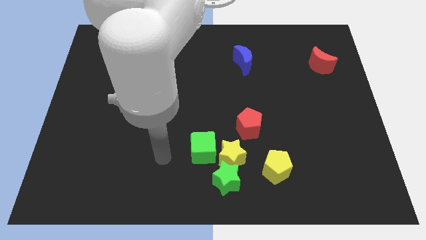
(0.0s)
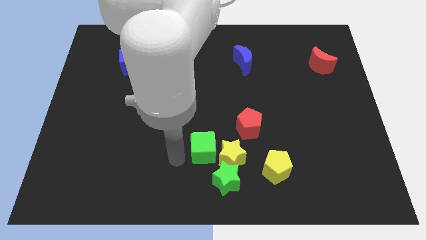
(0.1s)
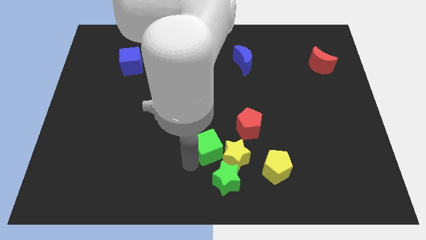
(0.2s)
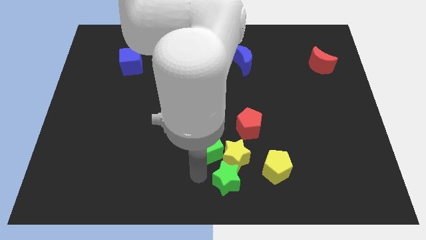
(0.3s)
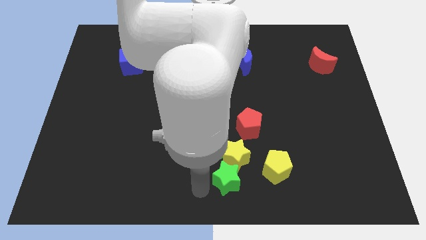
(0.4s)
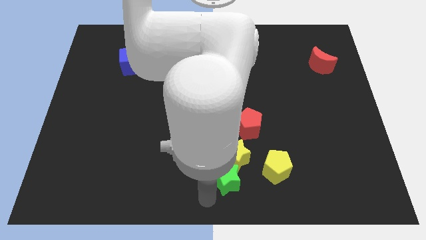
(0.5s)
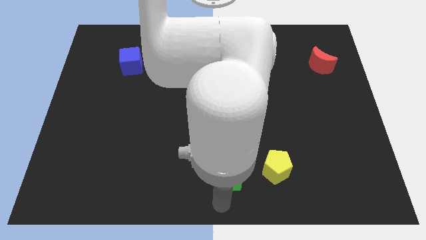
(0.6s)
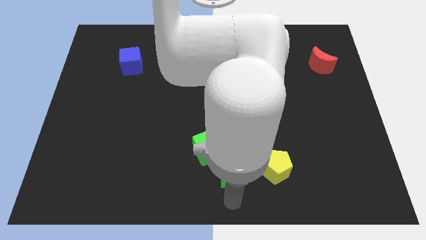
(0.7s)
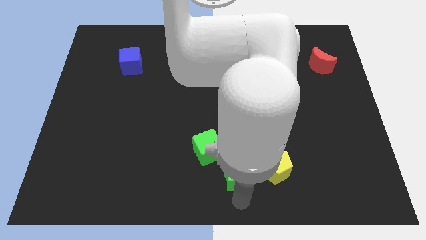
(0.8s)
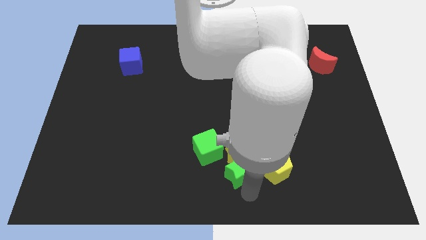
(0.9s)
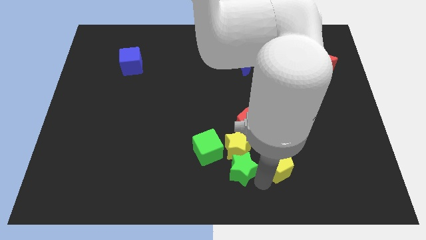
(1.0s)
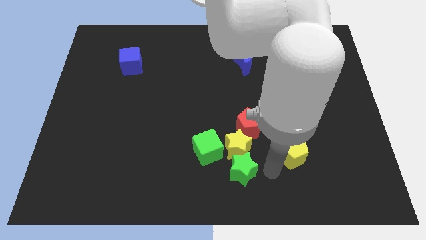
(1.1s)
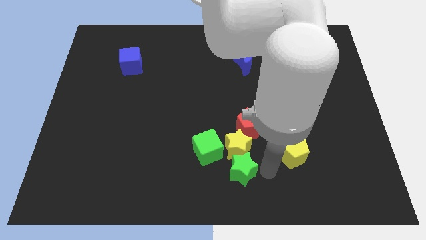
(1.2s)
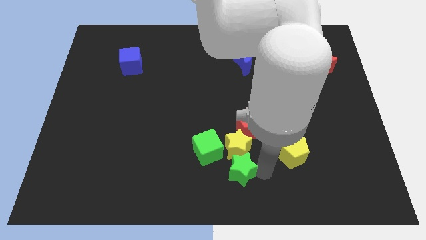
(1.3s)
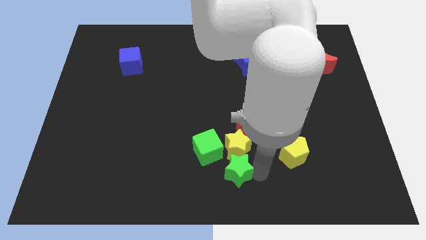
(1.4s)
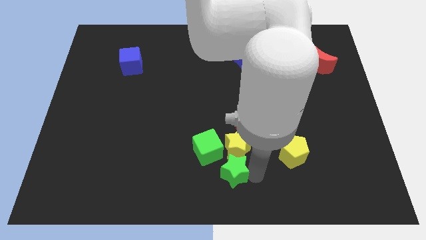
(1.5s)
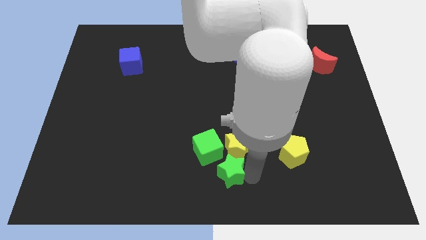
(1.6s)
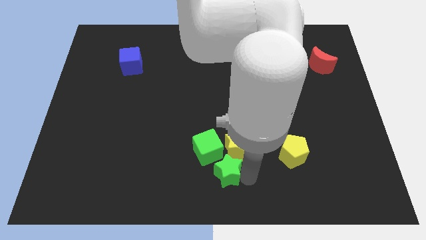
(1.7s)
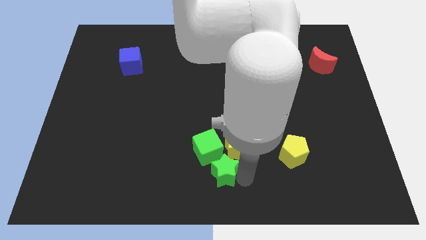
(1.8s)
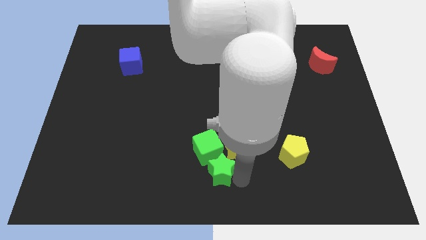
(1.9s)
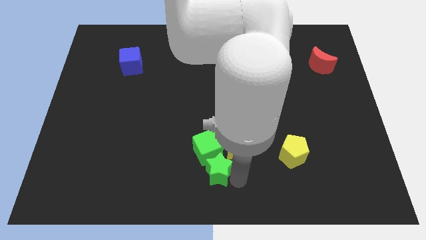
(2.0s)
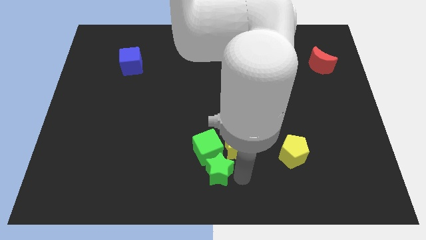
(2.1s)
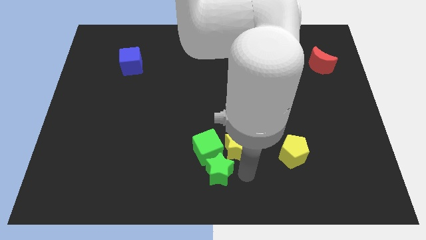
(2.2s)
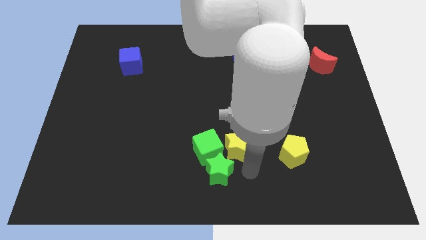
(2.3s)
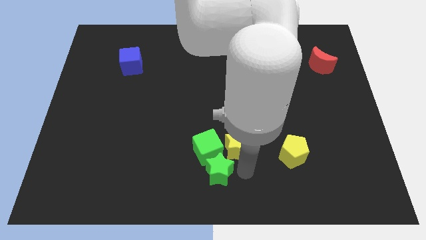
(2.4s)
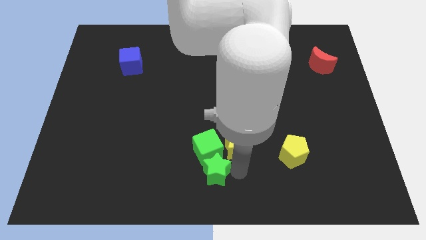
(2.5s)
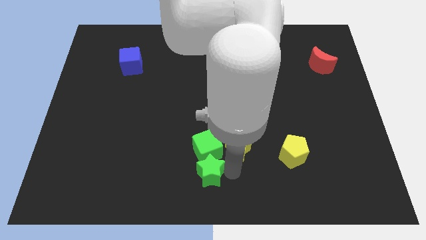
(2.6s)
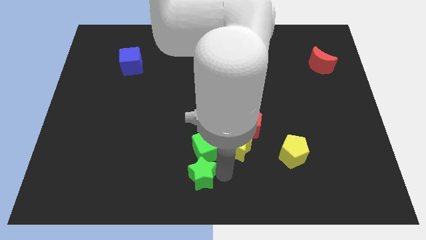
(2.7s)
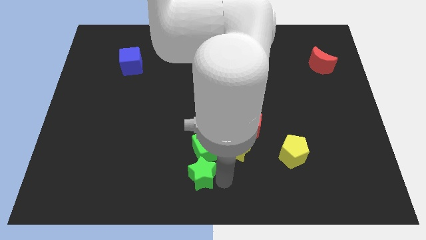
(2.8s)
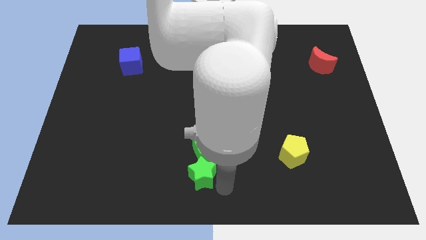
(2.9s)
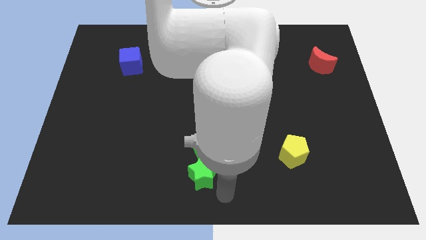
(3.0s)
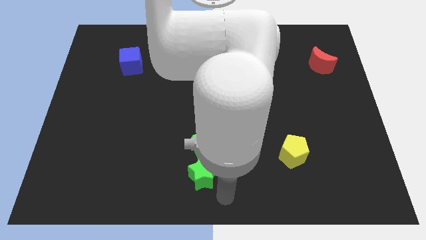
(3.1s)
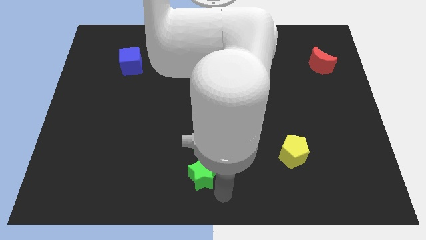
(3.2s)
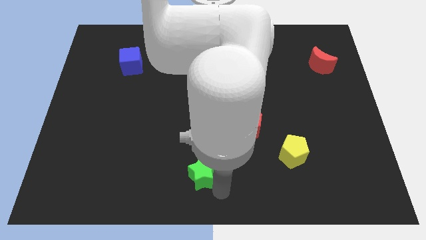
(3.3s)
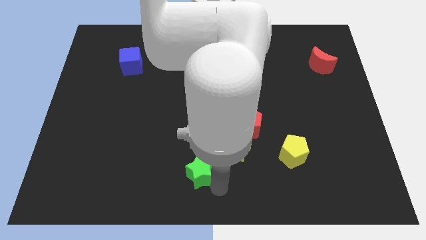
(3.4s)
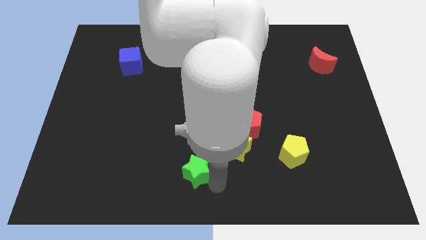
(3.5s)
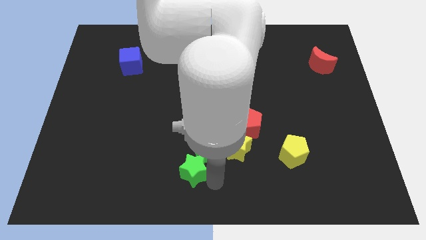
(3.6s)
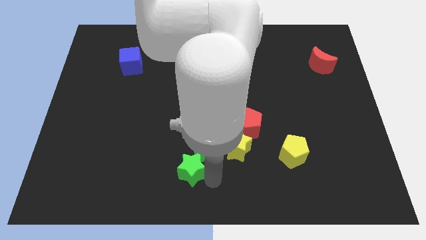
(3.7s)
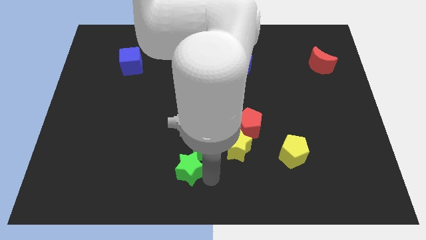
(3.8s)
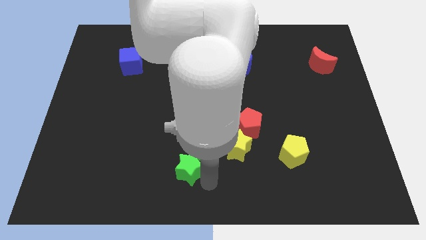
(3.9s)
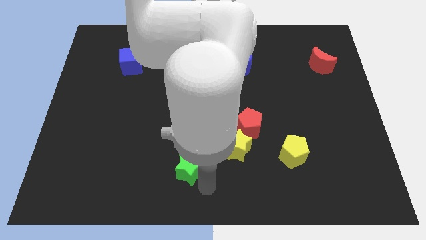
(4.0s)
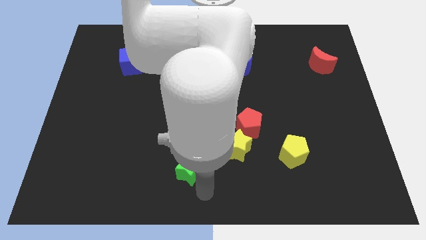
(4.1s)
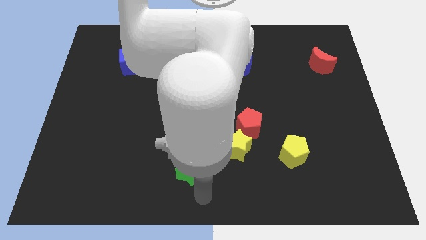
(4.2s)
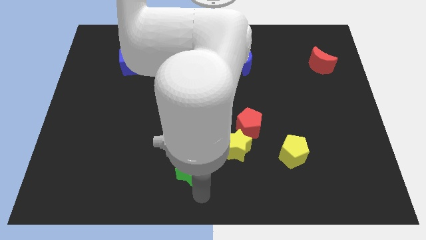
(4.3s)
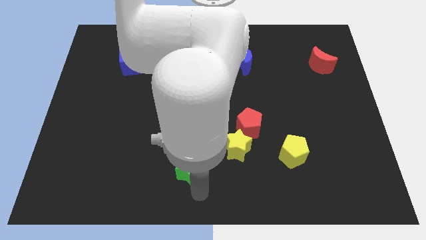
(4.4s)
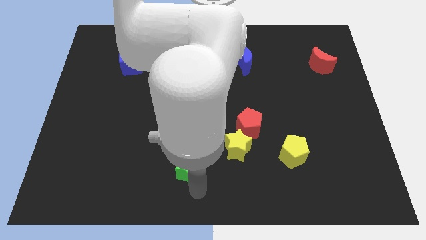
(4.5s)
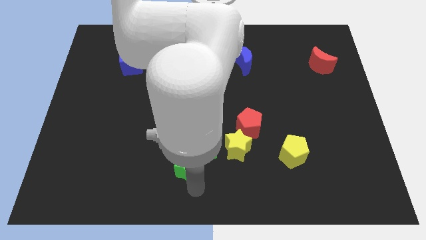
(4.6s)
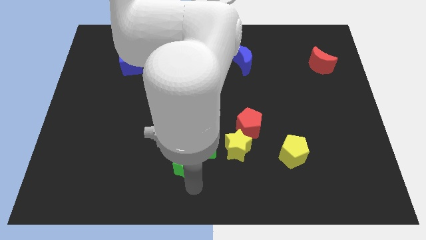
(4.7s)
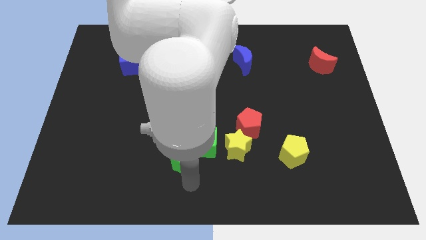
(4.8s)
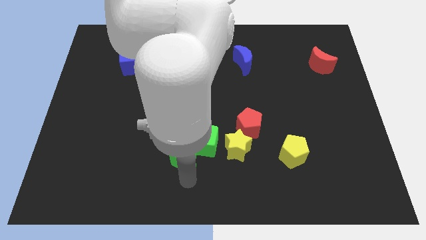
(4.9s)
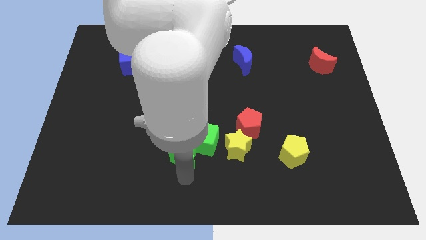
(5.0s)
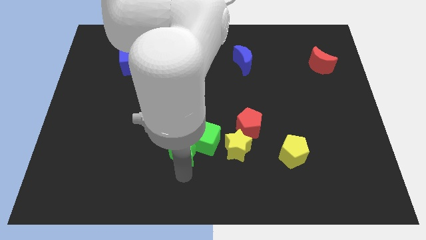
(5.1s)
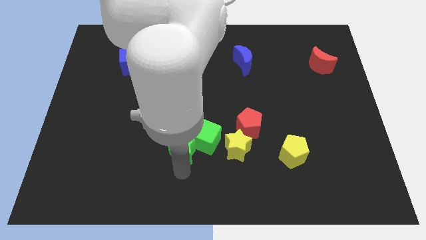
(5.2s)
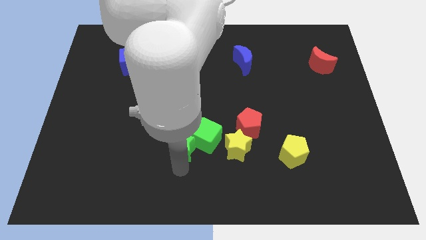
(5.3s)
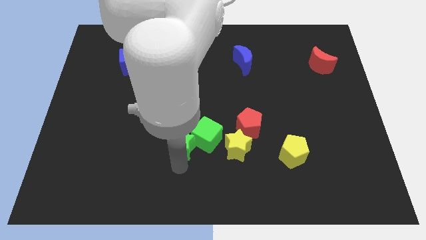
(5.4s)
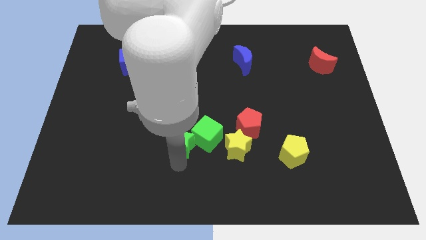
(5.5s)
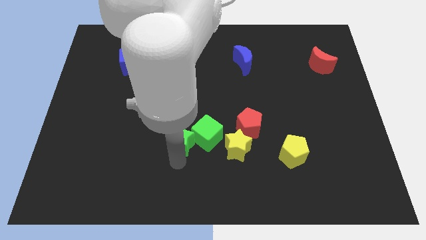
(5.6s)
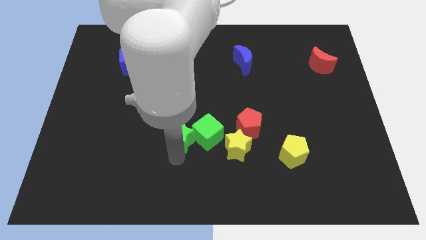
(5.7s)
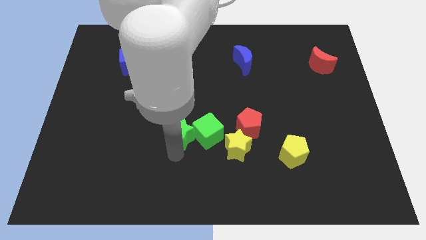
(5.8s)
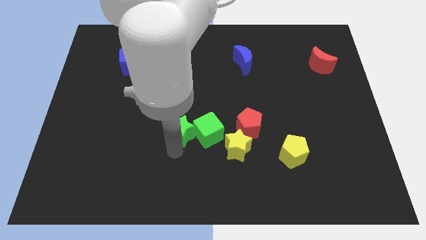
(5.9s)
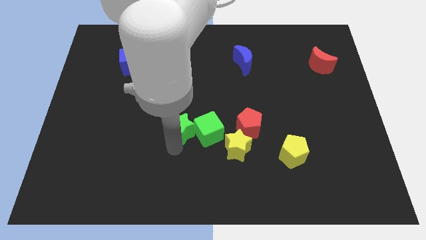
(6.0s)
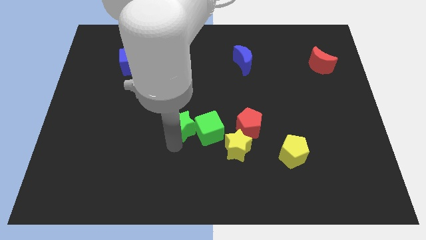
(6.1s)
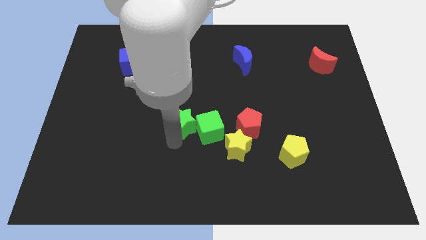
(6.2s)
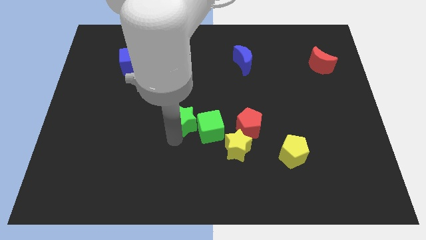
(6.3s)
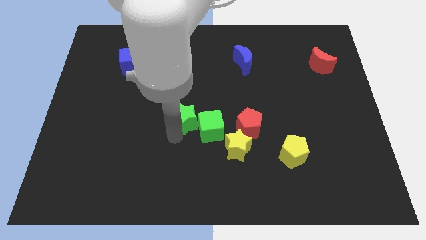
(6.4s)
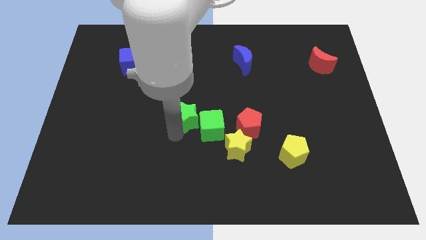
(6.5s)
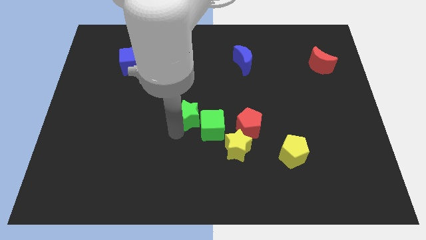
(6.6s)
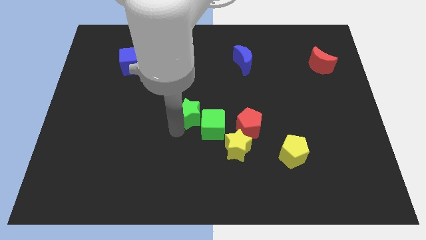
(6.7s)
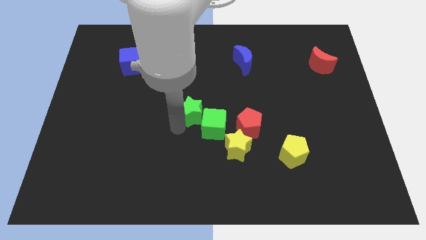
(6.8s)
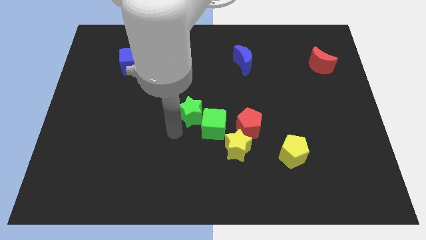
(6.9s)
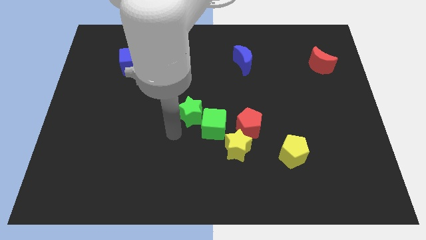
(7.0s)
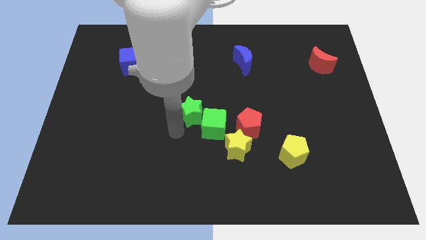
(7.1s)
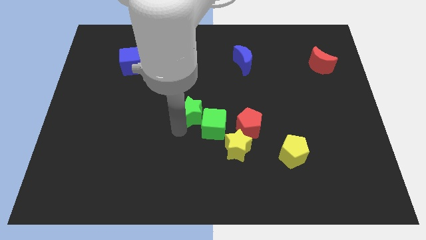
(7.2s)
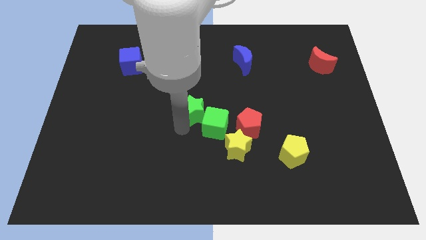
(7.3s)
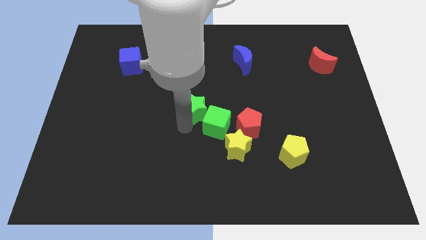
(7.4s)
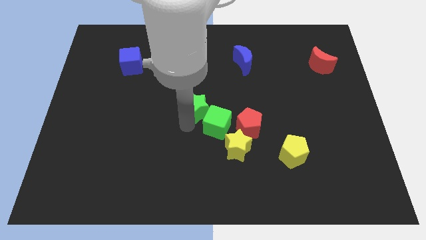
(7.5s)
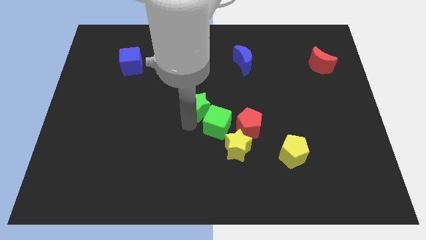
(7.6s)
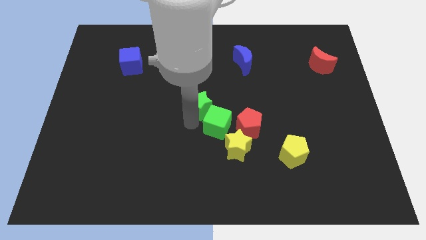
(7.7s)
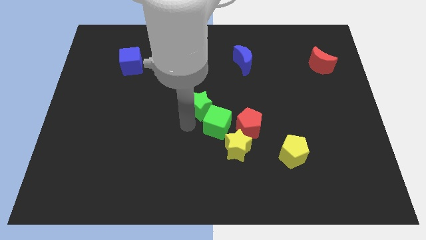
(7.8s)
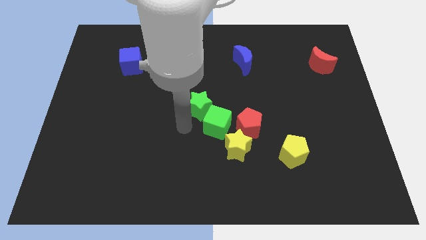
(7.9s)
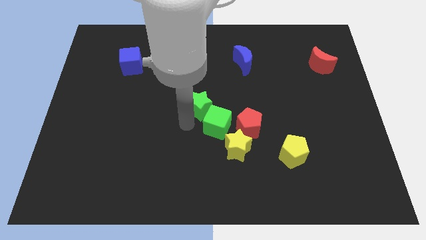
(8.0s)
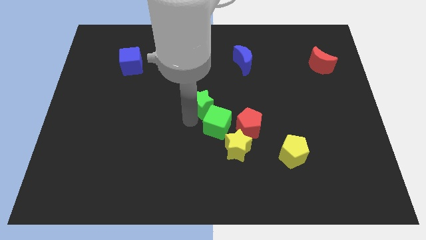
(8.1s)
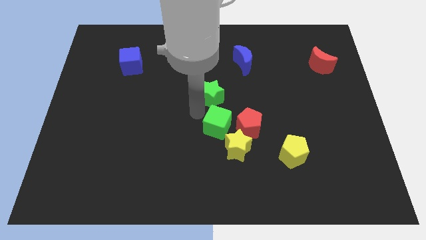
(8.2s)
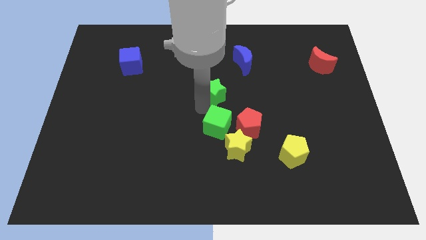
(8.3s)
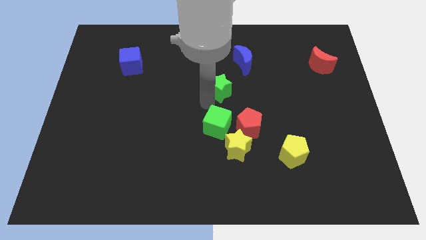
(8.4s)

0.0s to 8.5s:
push the green star to the bottom left side of the blue moon

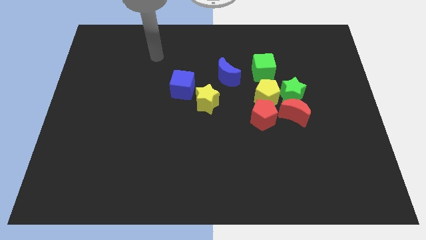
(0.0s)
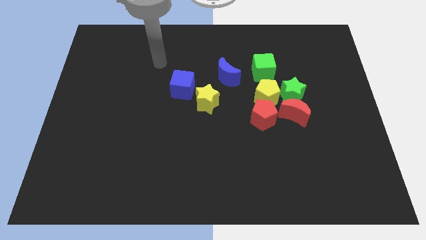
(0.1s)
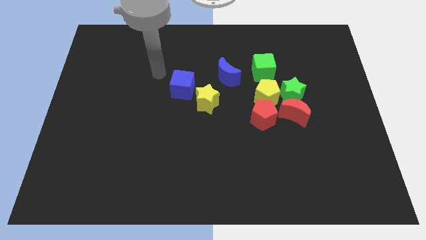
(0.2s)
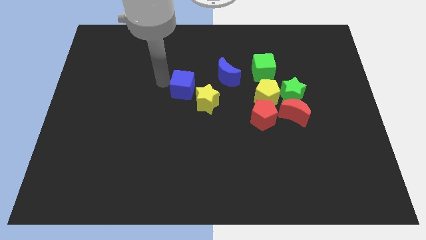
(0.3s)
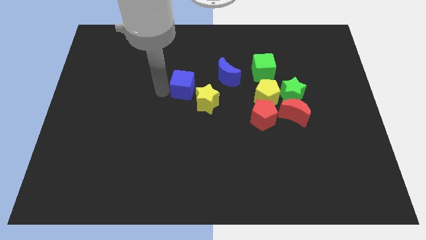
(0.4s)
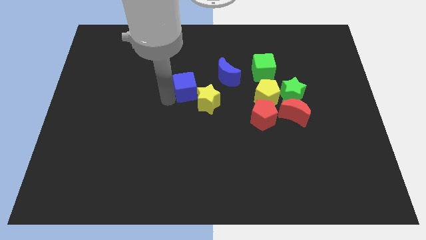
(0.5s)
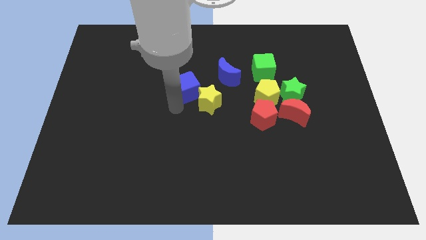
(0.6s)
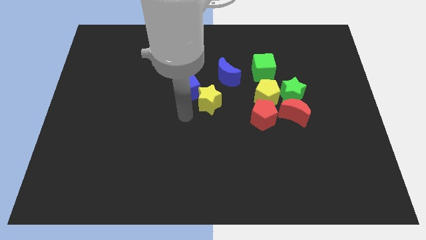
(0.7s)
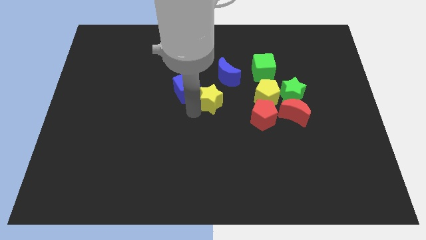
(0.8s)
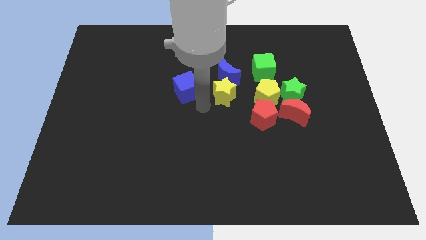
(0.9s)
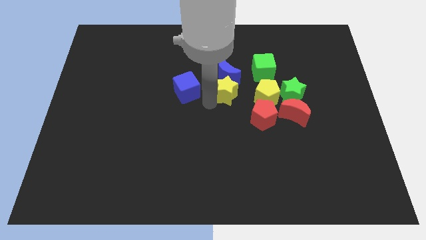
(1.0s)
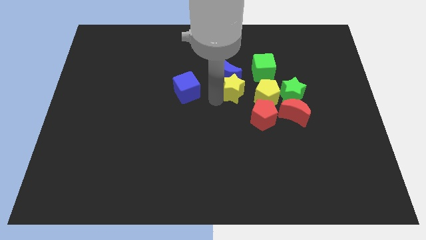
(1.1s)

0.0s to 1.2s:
move the yellow star to the top left of the yellow pentagon
